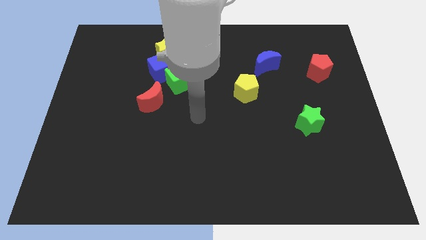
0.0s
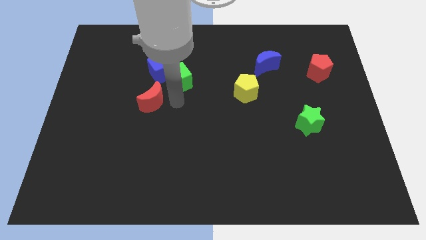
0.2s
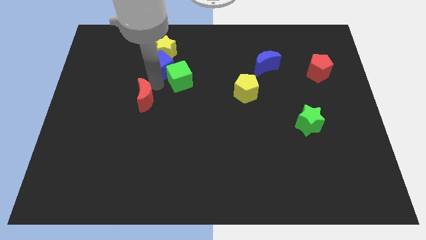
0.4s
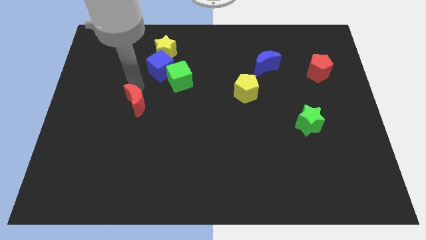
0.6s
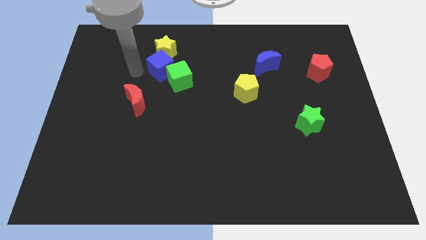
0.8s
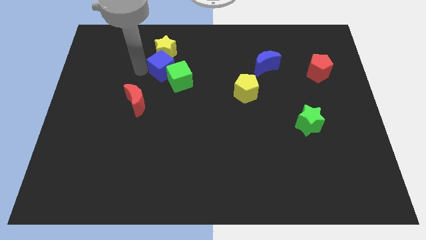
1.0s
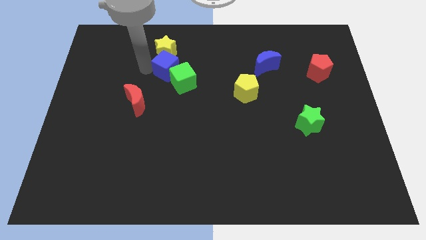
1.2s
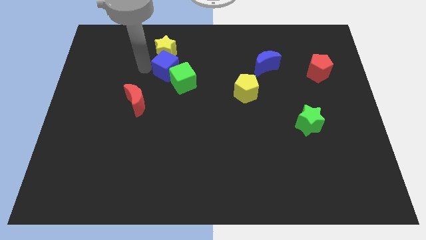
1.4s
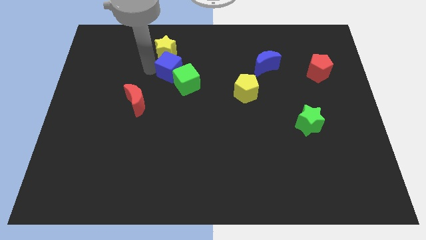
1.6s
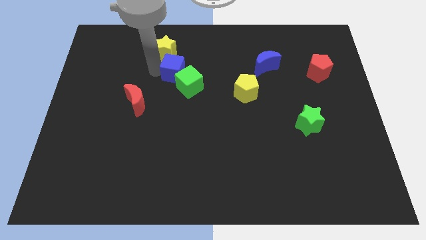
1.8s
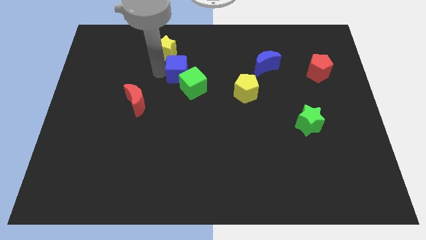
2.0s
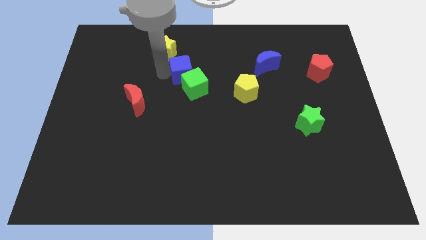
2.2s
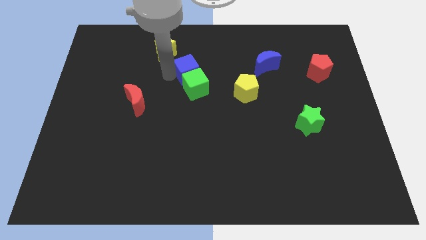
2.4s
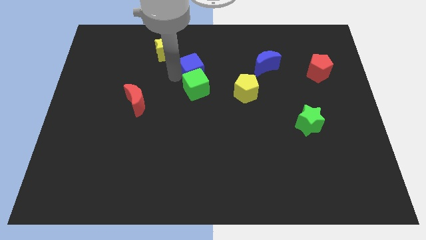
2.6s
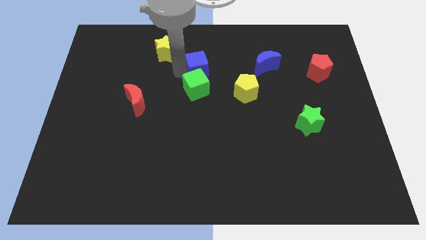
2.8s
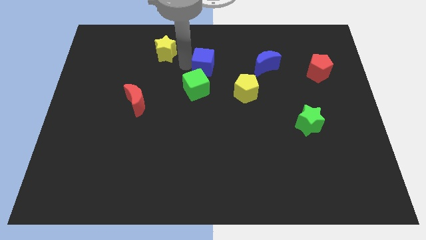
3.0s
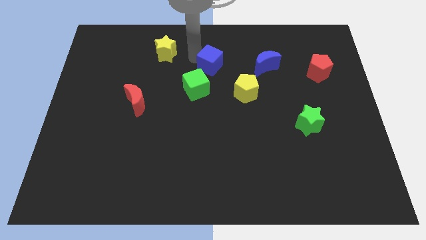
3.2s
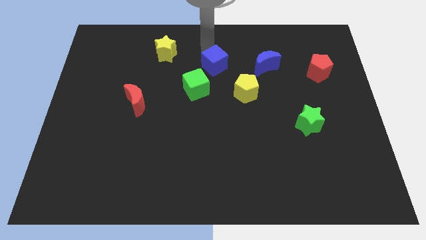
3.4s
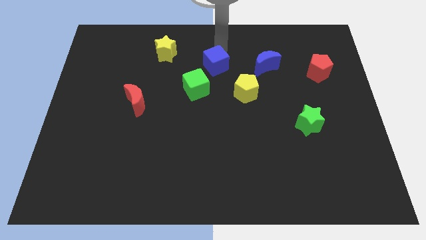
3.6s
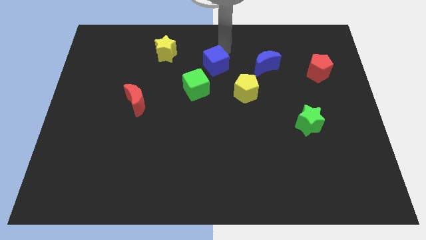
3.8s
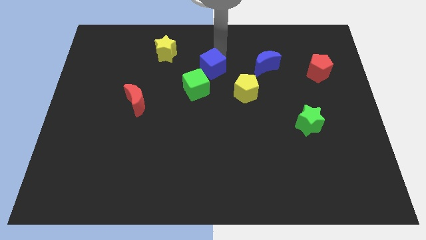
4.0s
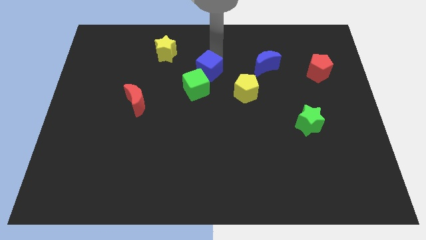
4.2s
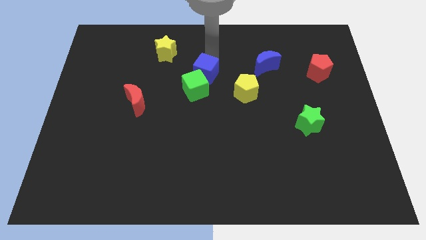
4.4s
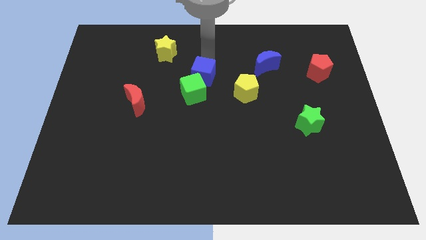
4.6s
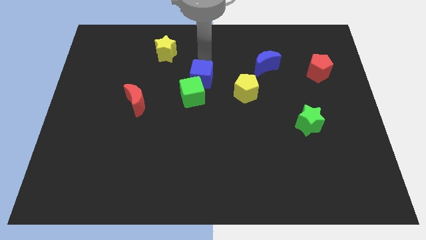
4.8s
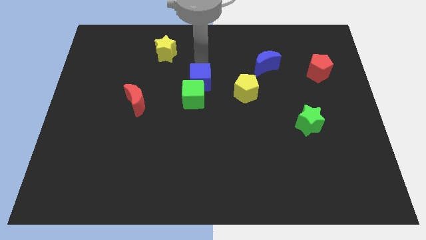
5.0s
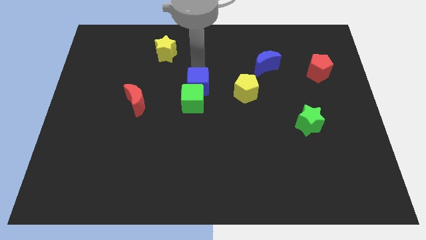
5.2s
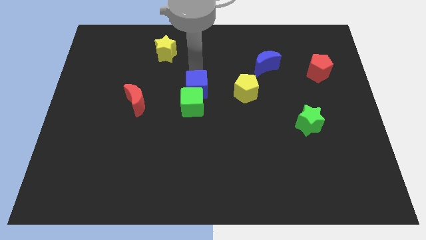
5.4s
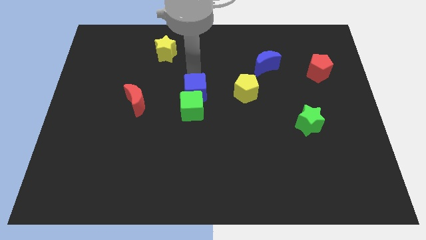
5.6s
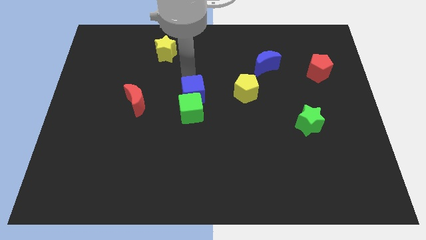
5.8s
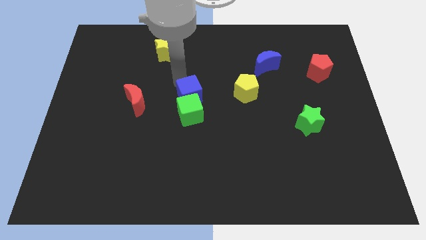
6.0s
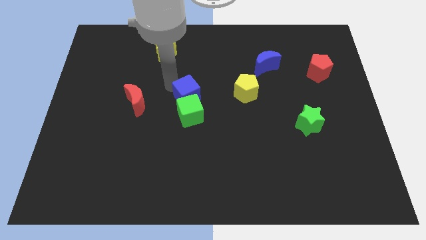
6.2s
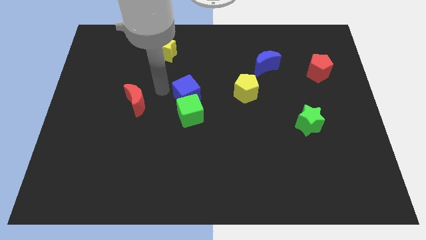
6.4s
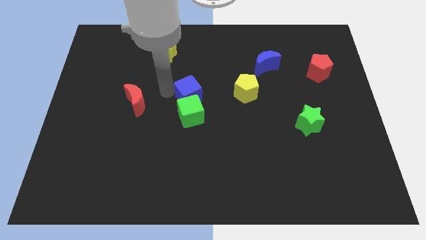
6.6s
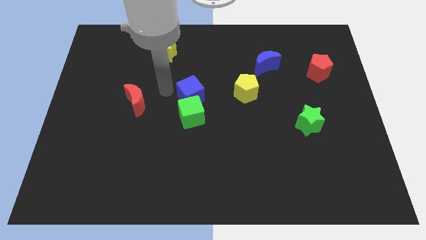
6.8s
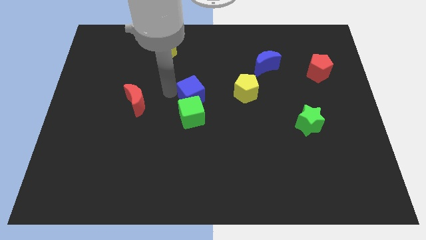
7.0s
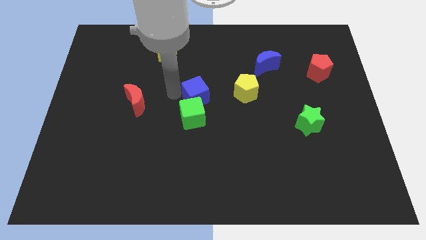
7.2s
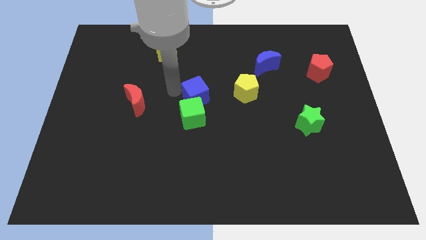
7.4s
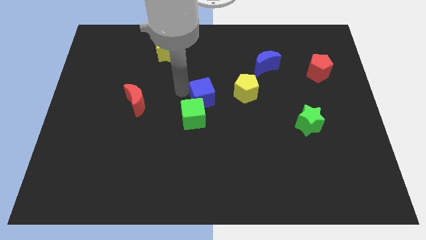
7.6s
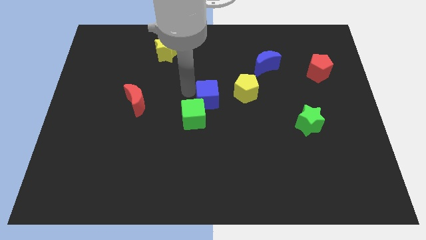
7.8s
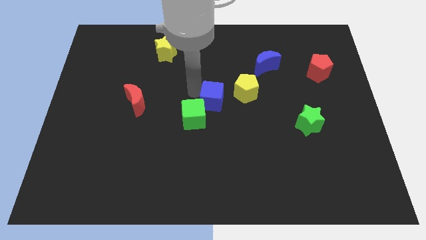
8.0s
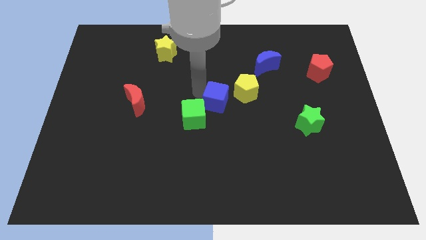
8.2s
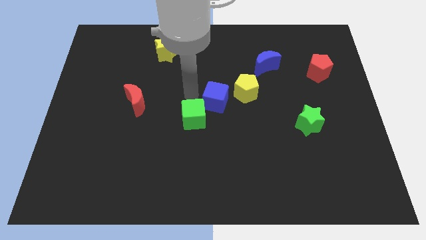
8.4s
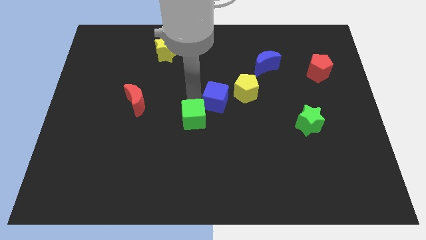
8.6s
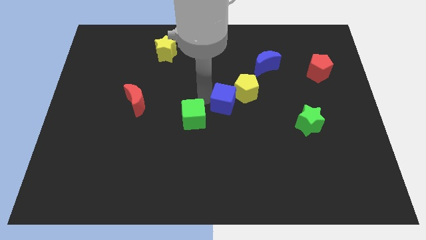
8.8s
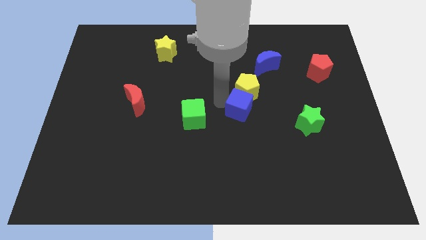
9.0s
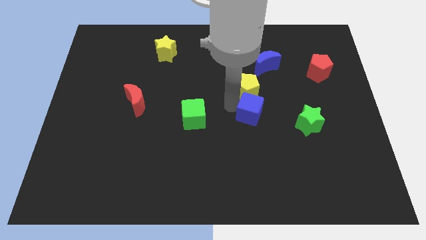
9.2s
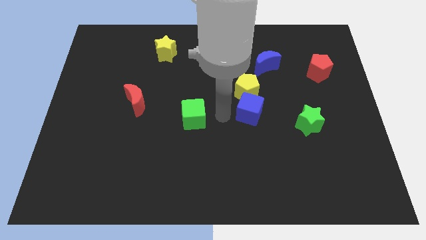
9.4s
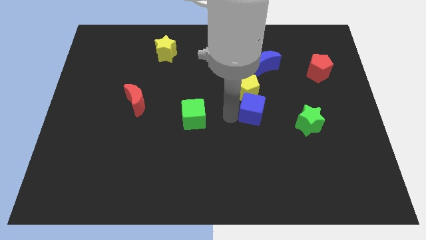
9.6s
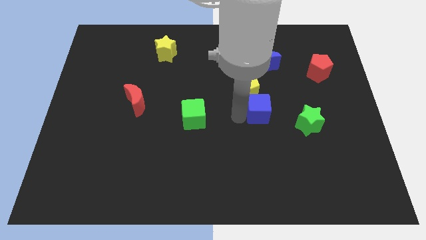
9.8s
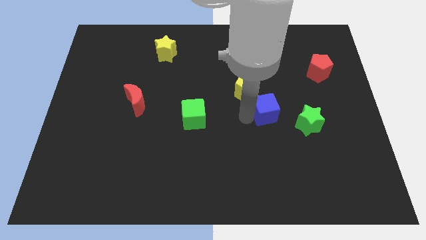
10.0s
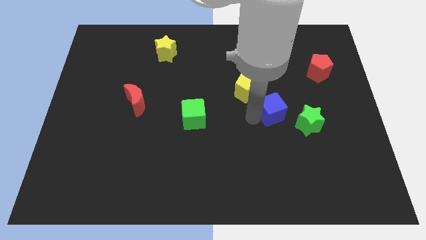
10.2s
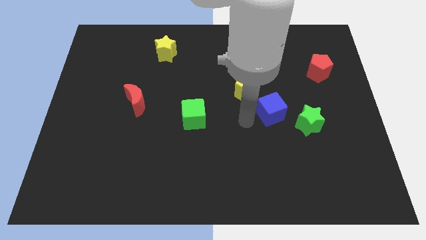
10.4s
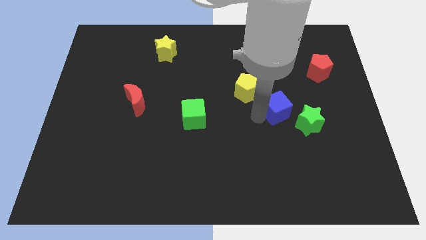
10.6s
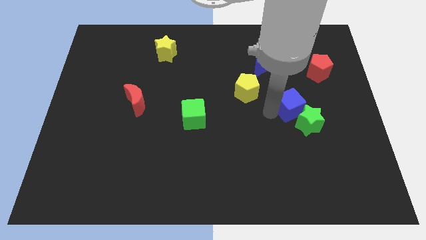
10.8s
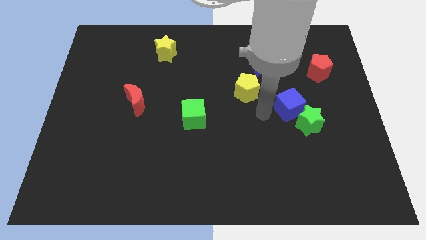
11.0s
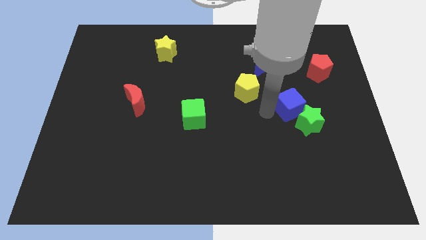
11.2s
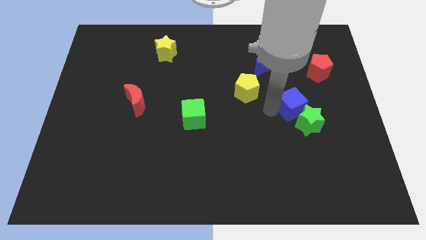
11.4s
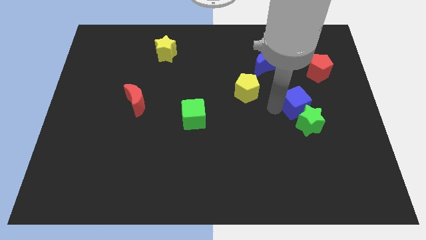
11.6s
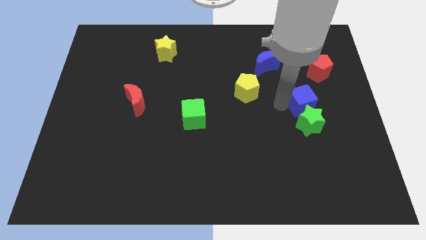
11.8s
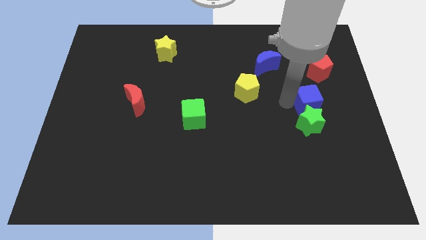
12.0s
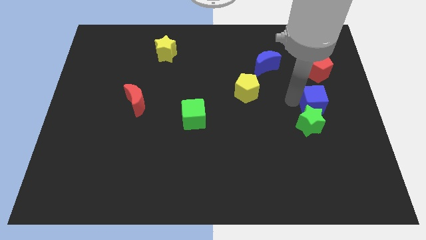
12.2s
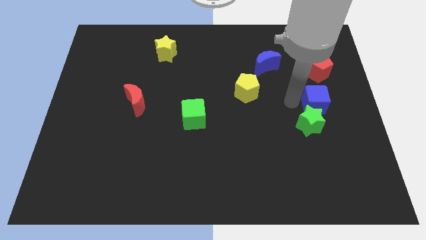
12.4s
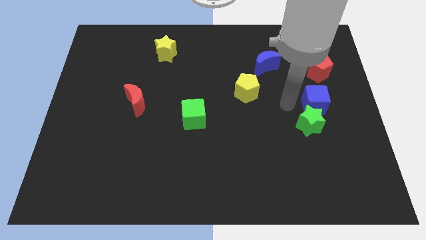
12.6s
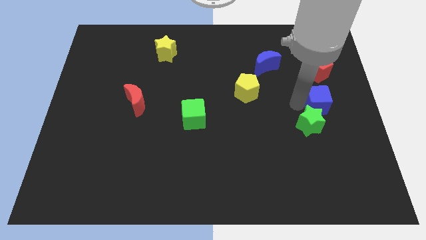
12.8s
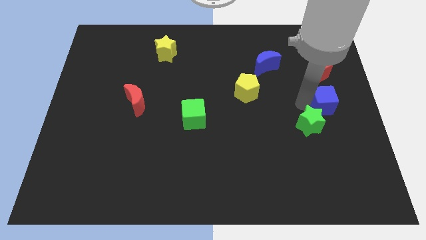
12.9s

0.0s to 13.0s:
move the blue cube to the right side

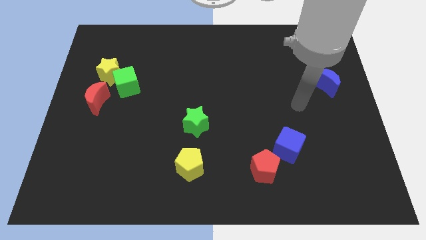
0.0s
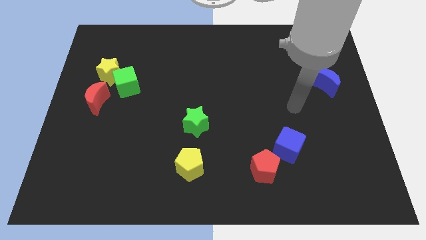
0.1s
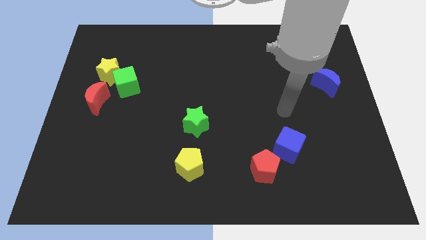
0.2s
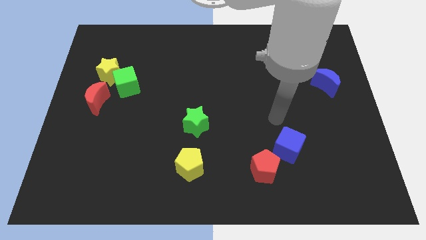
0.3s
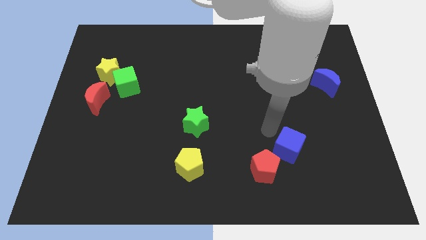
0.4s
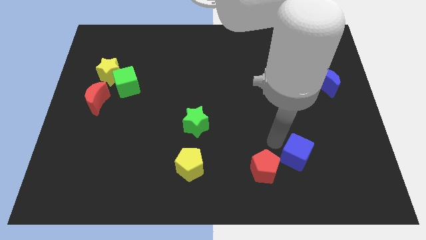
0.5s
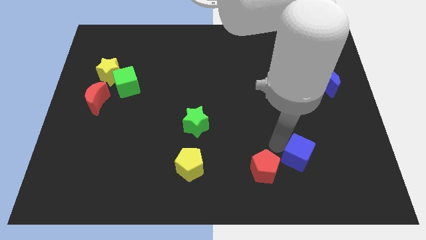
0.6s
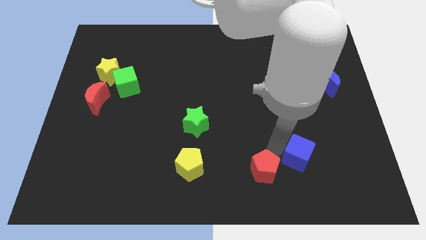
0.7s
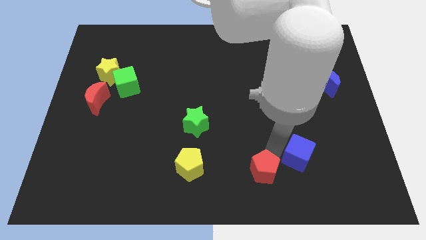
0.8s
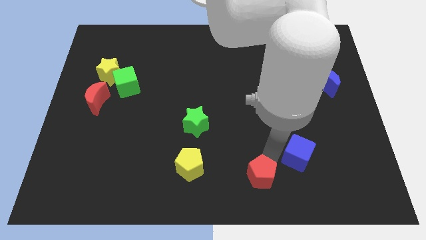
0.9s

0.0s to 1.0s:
move the red pentagon to the bottom side
